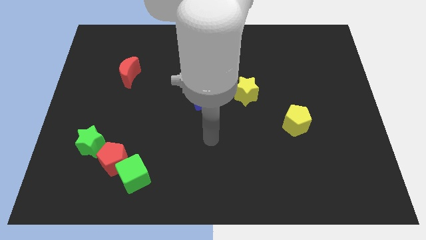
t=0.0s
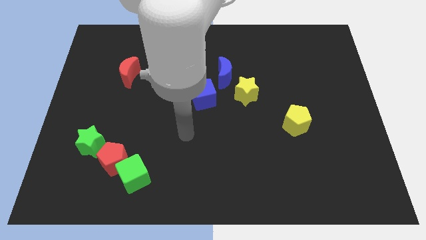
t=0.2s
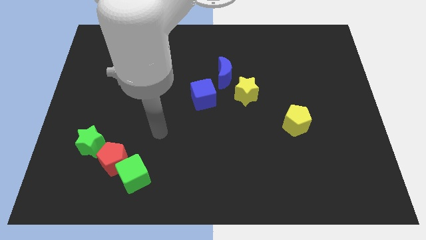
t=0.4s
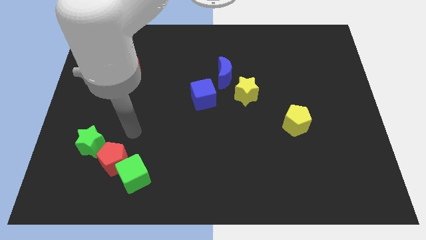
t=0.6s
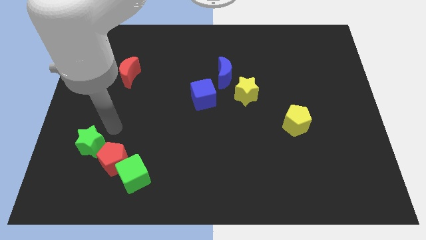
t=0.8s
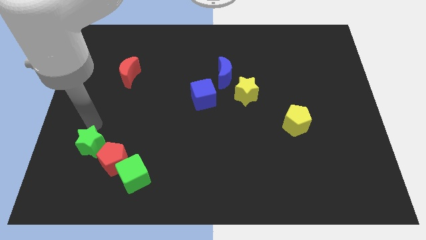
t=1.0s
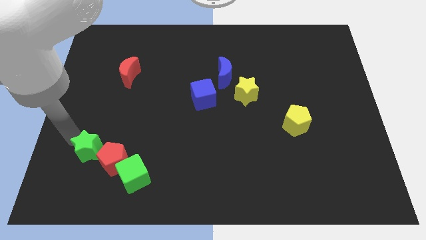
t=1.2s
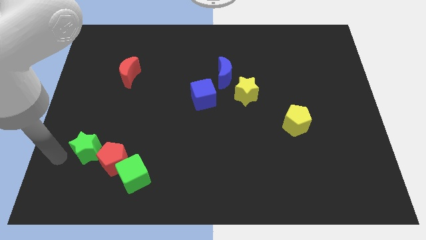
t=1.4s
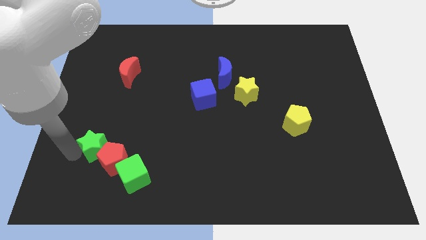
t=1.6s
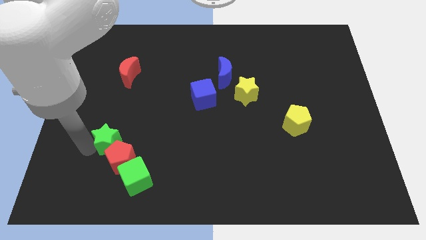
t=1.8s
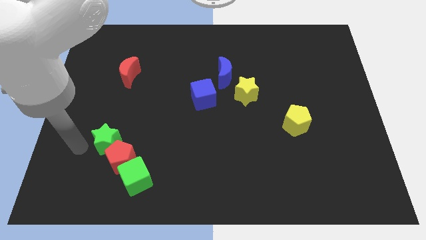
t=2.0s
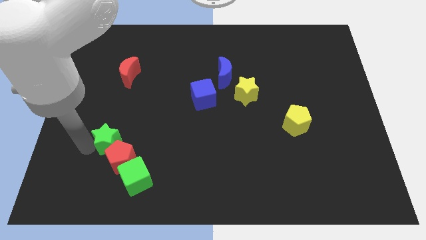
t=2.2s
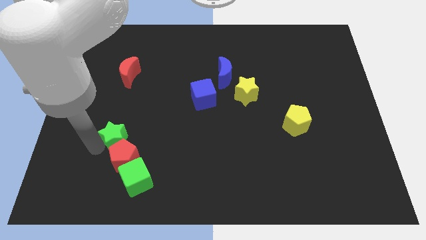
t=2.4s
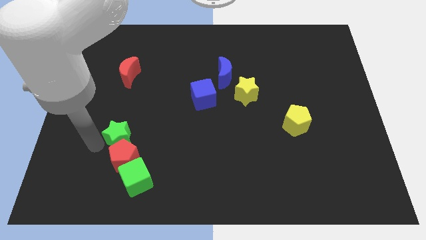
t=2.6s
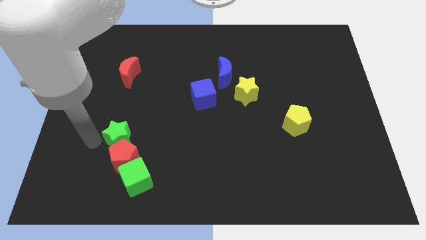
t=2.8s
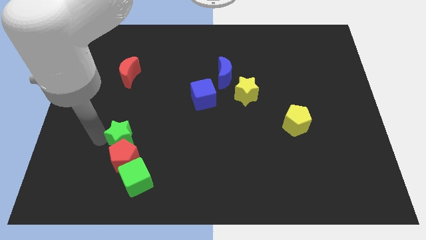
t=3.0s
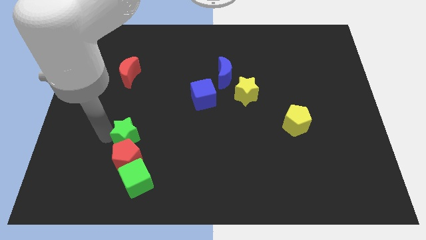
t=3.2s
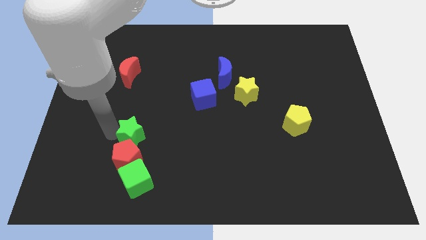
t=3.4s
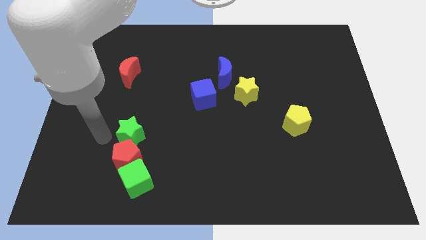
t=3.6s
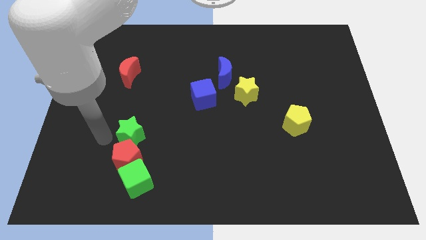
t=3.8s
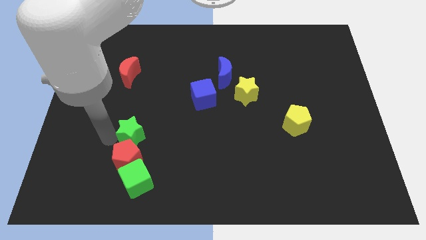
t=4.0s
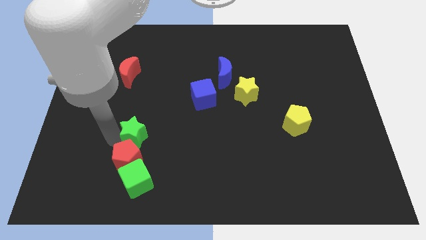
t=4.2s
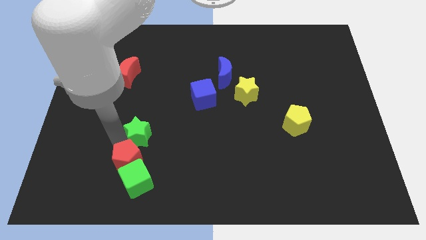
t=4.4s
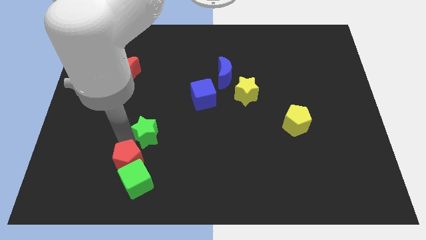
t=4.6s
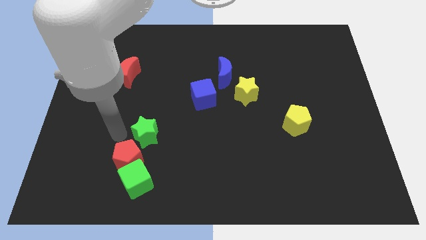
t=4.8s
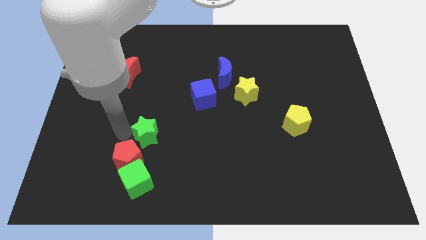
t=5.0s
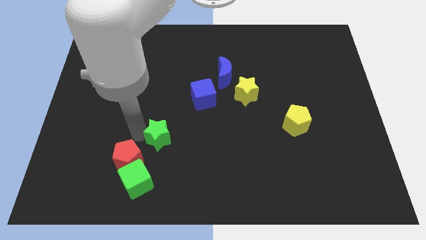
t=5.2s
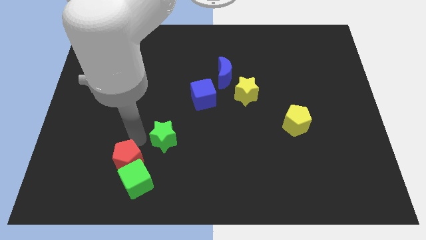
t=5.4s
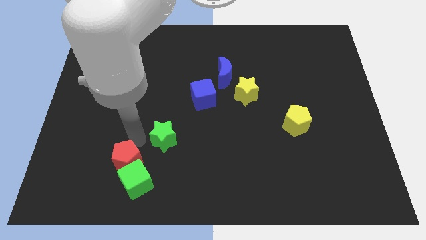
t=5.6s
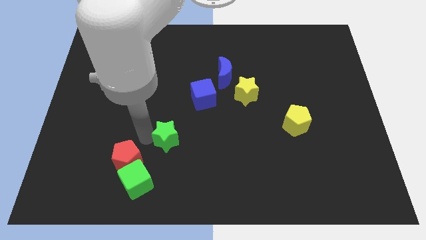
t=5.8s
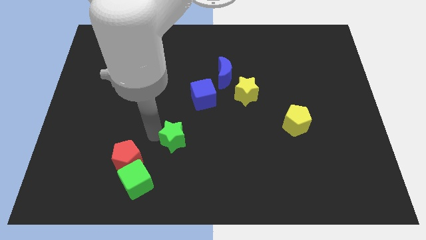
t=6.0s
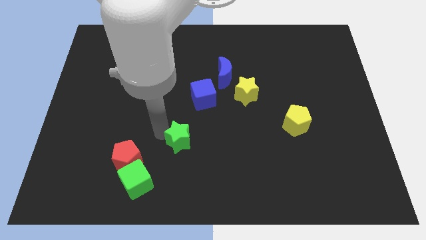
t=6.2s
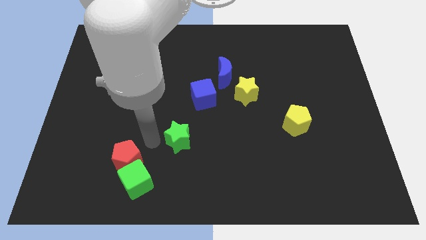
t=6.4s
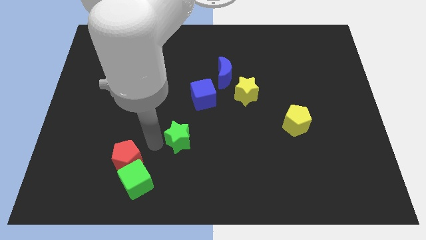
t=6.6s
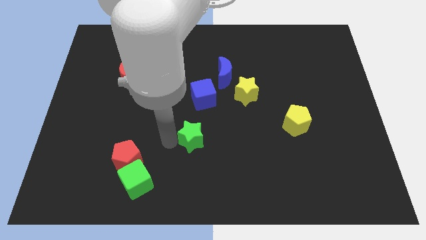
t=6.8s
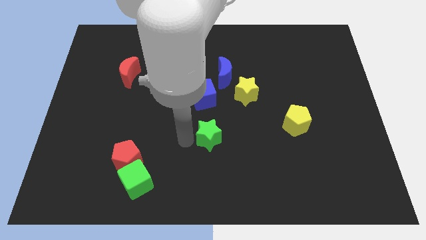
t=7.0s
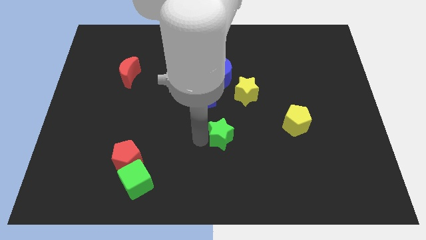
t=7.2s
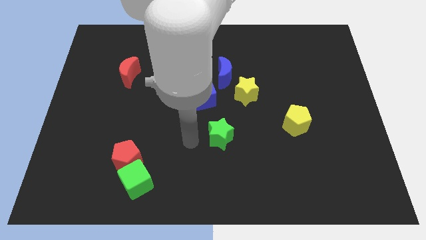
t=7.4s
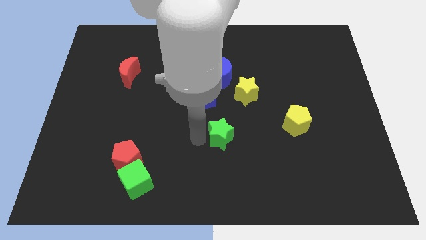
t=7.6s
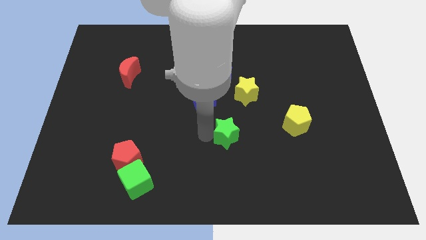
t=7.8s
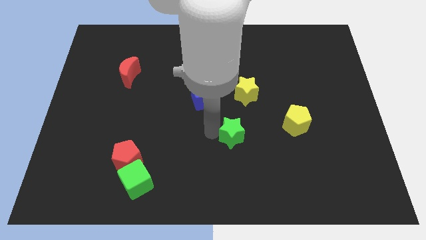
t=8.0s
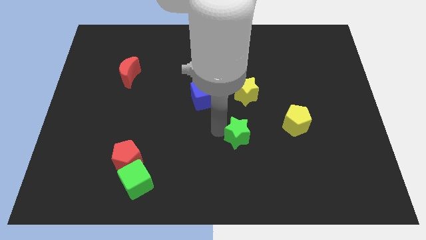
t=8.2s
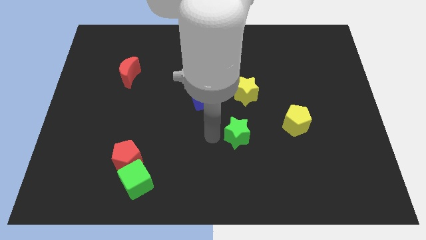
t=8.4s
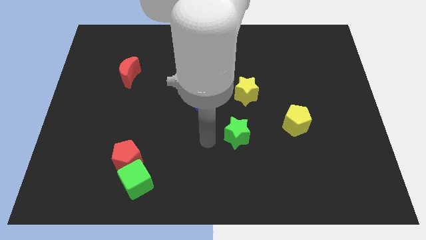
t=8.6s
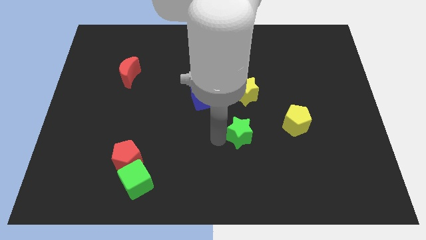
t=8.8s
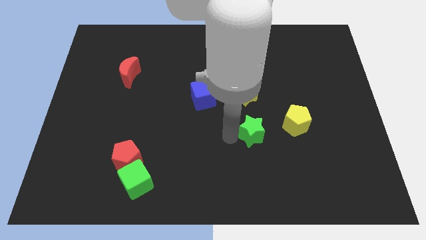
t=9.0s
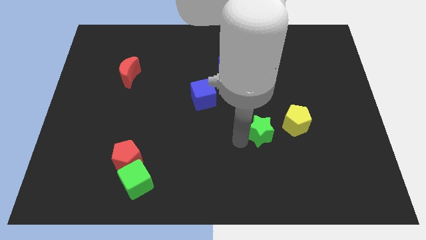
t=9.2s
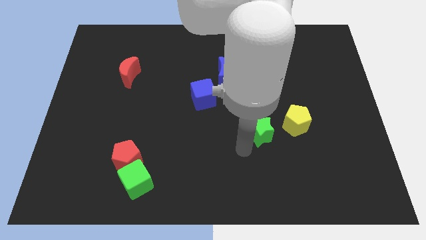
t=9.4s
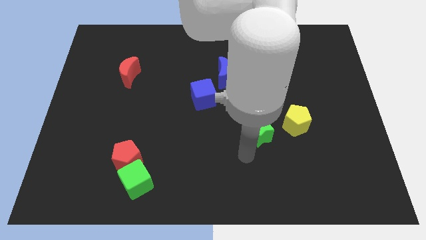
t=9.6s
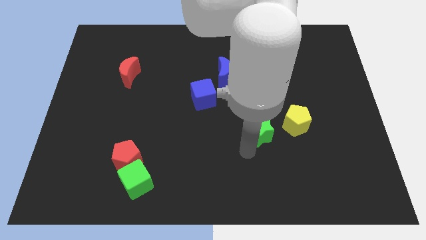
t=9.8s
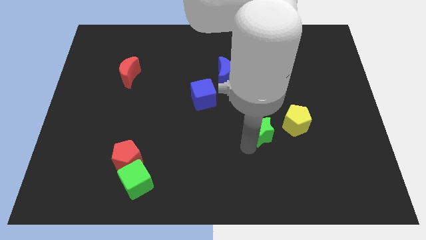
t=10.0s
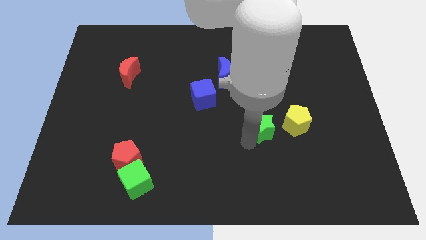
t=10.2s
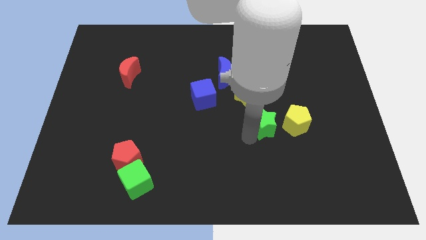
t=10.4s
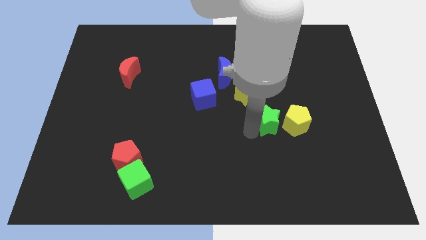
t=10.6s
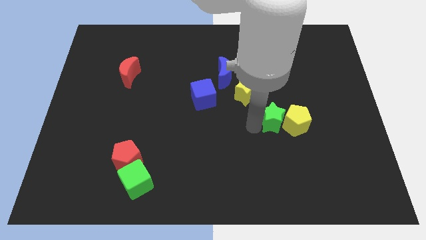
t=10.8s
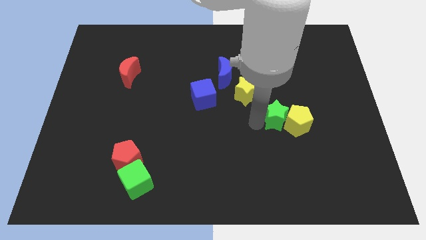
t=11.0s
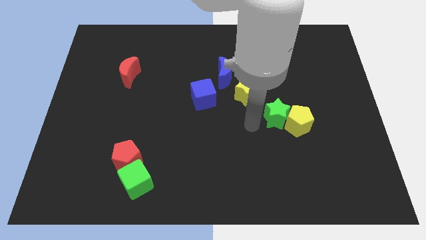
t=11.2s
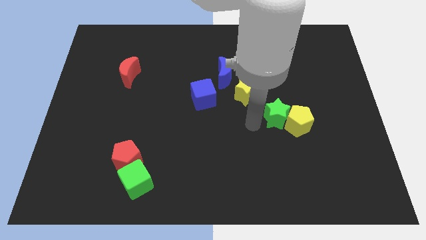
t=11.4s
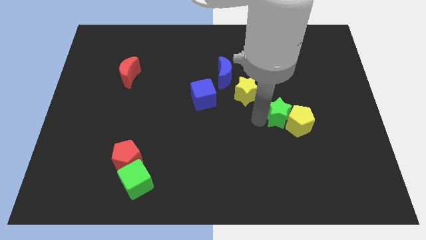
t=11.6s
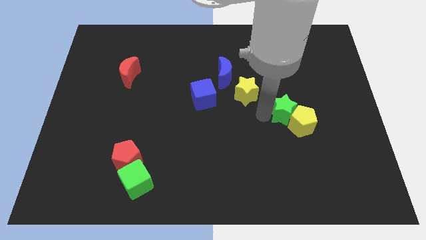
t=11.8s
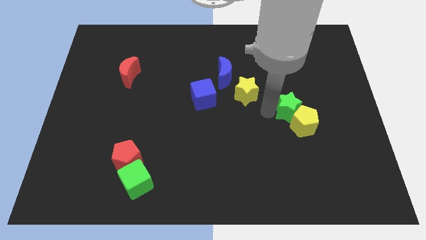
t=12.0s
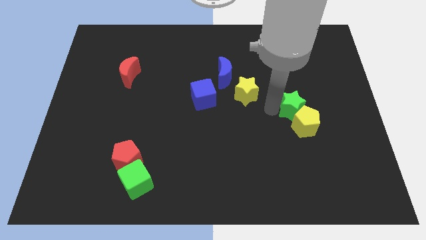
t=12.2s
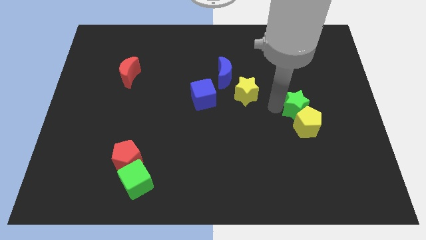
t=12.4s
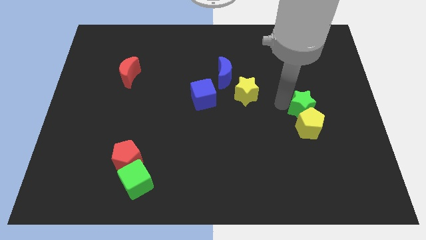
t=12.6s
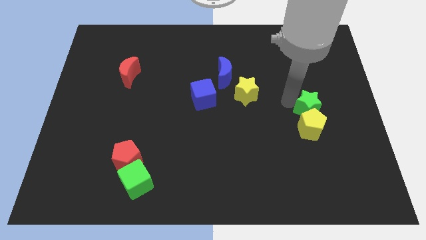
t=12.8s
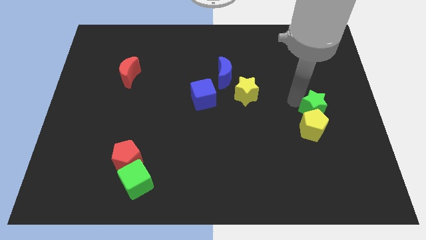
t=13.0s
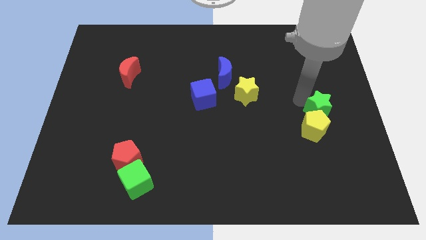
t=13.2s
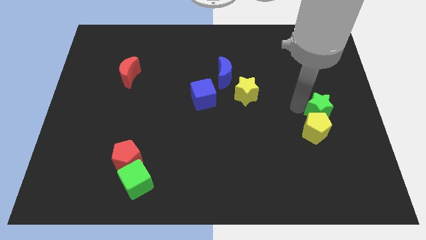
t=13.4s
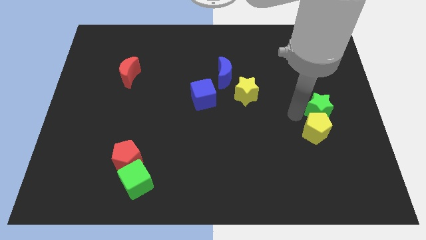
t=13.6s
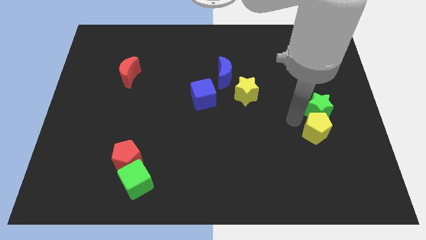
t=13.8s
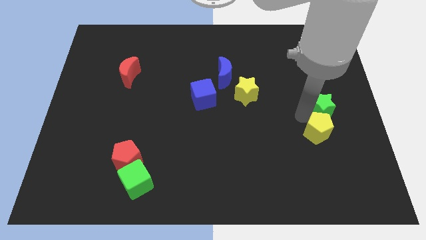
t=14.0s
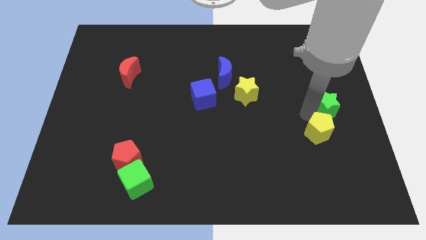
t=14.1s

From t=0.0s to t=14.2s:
push the green star to the right side
